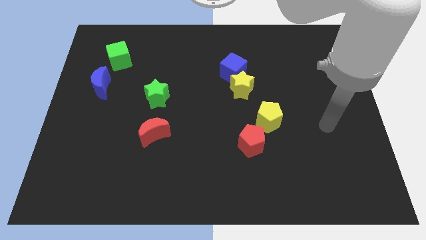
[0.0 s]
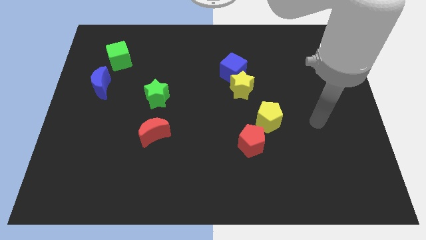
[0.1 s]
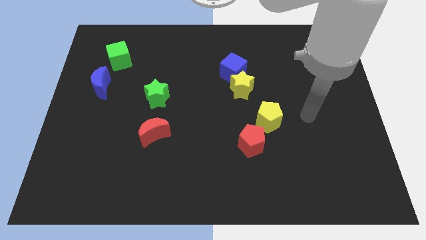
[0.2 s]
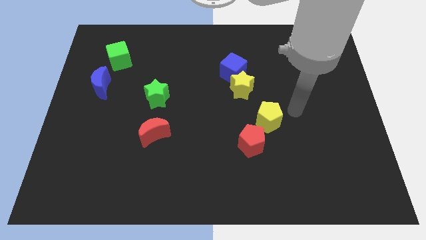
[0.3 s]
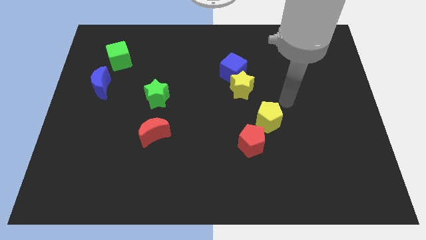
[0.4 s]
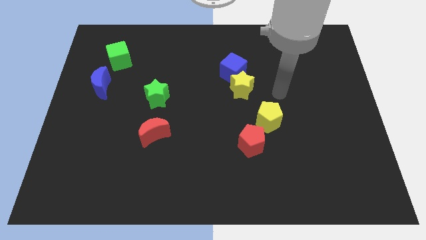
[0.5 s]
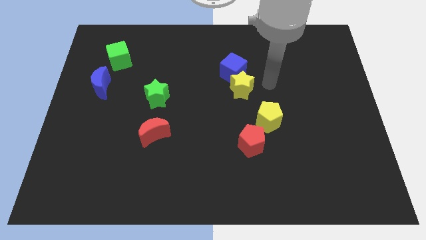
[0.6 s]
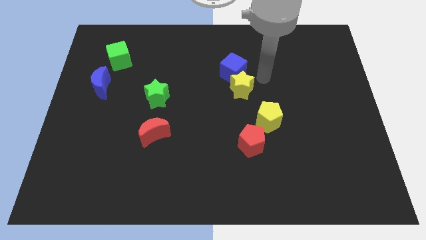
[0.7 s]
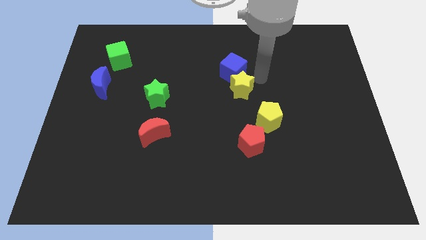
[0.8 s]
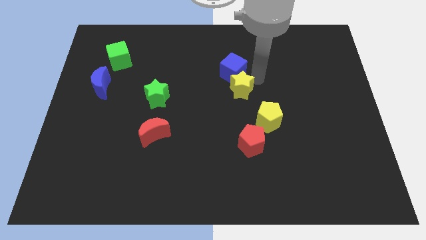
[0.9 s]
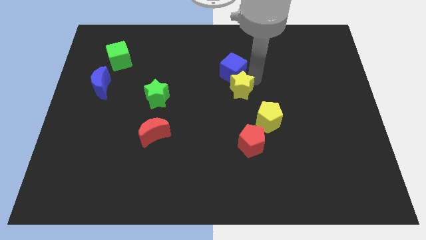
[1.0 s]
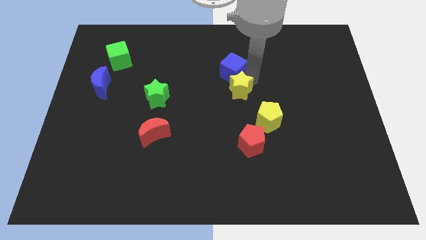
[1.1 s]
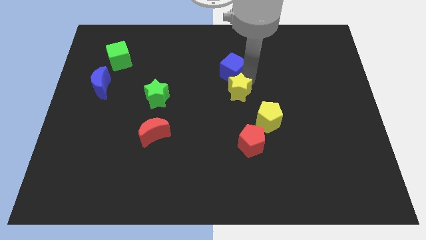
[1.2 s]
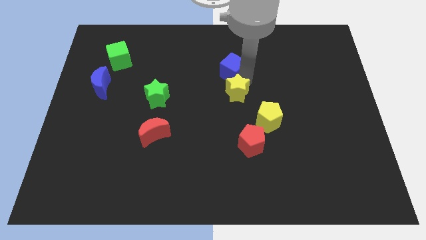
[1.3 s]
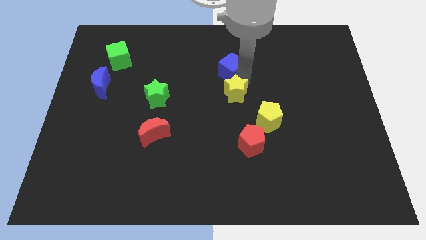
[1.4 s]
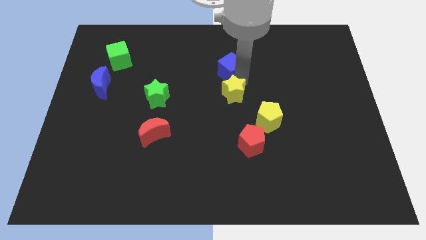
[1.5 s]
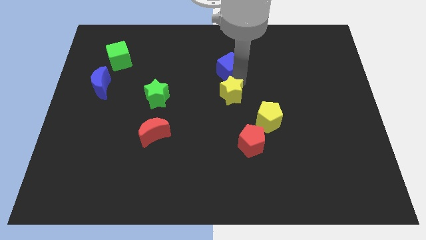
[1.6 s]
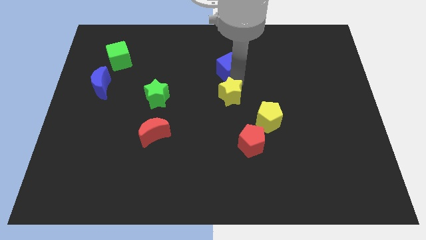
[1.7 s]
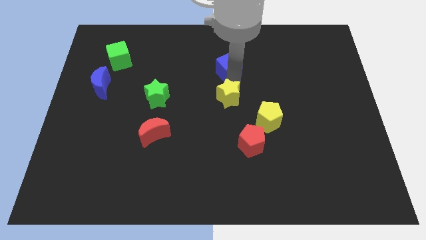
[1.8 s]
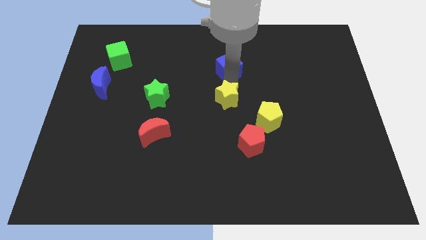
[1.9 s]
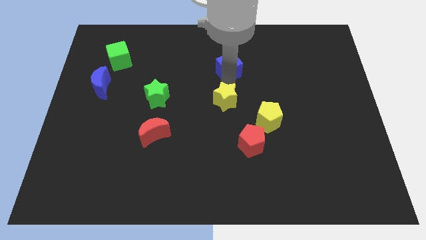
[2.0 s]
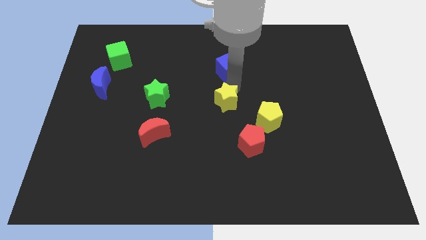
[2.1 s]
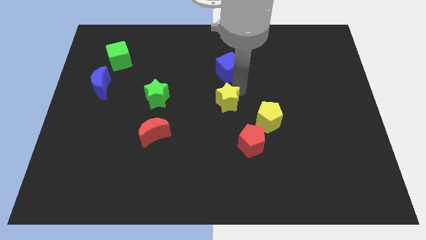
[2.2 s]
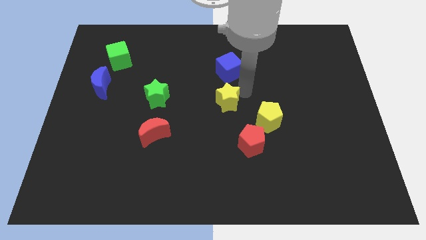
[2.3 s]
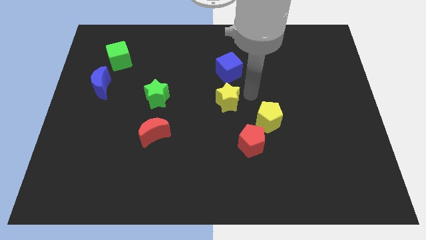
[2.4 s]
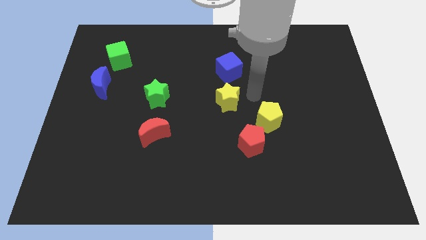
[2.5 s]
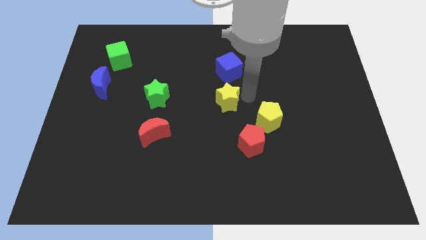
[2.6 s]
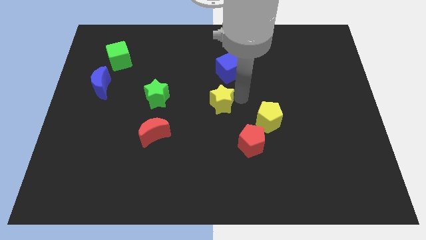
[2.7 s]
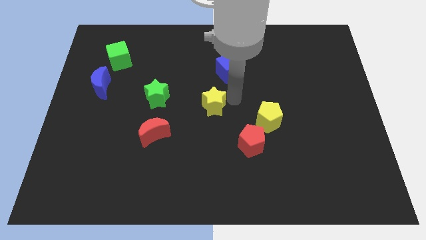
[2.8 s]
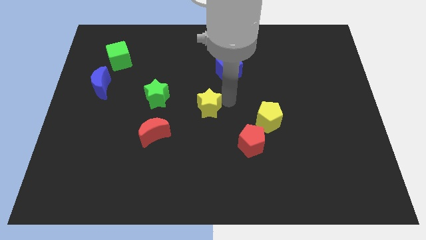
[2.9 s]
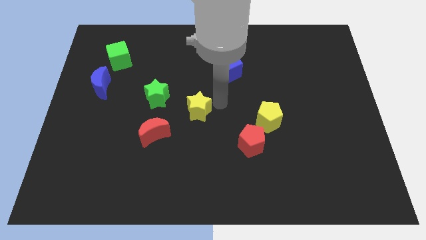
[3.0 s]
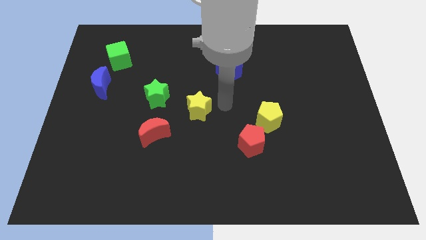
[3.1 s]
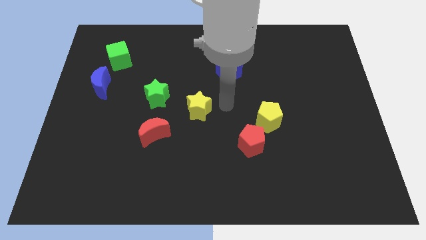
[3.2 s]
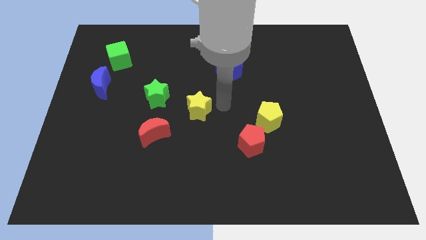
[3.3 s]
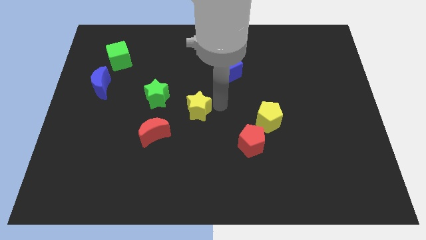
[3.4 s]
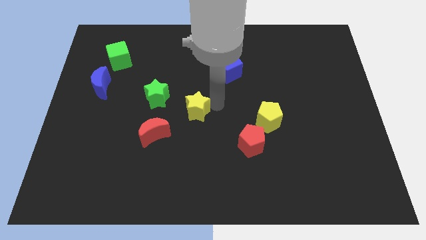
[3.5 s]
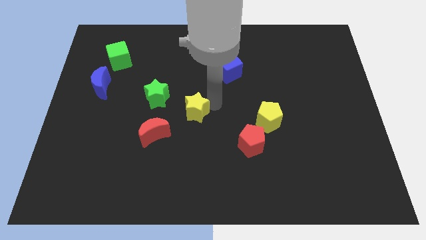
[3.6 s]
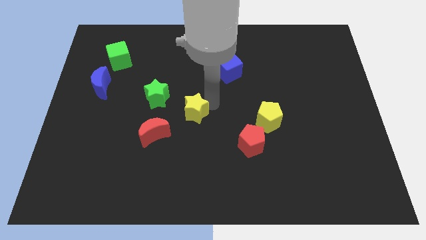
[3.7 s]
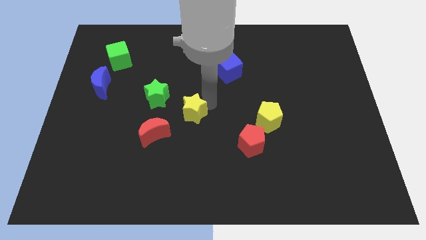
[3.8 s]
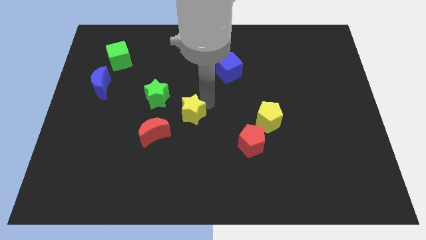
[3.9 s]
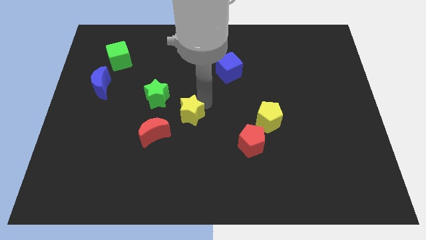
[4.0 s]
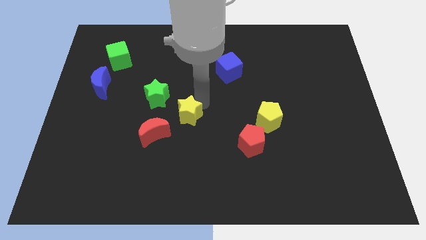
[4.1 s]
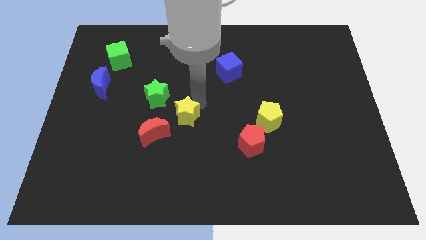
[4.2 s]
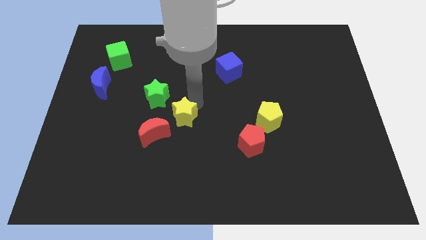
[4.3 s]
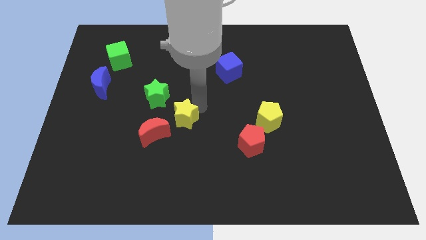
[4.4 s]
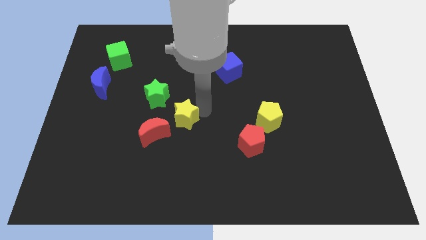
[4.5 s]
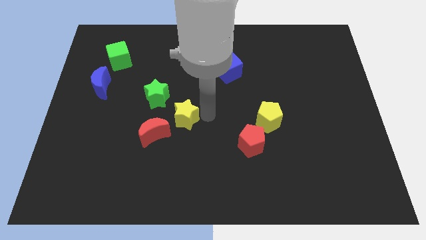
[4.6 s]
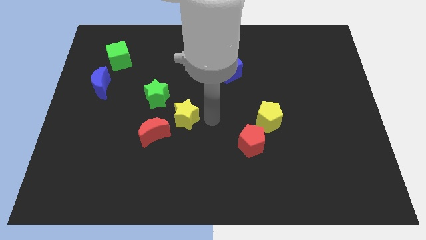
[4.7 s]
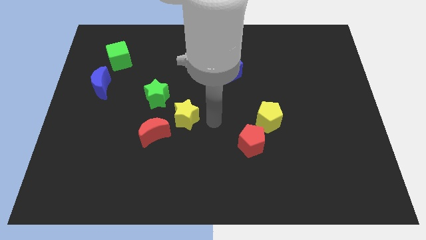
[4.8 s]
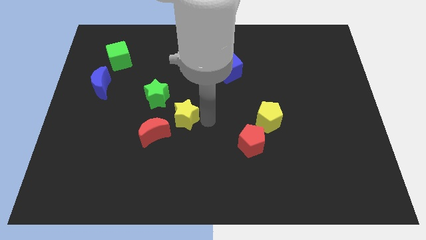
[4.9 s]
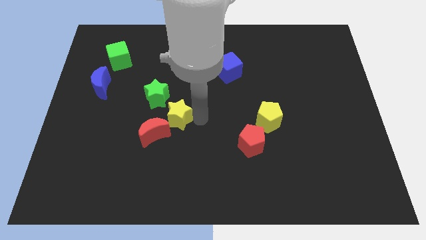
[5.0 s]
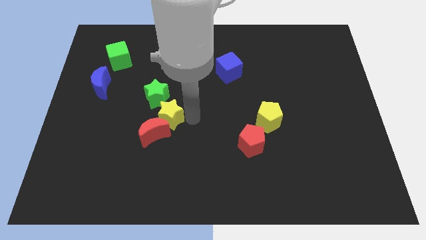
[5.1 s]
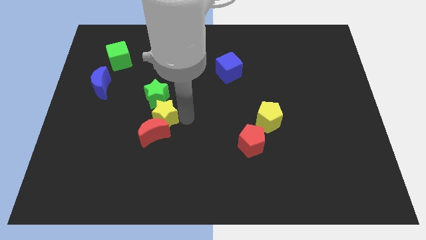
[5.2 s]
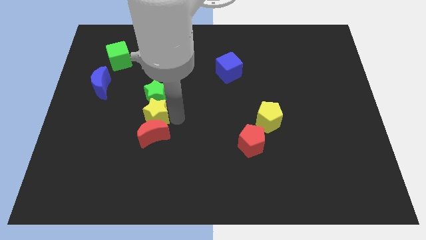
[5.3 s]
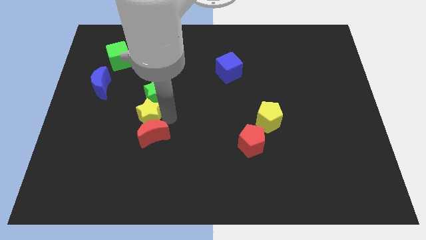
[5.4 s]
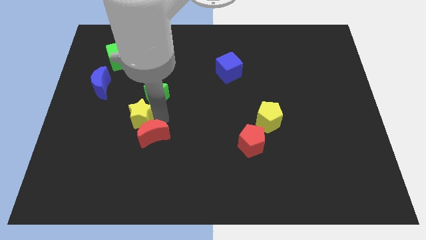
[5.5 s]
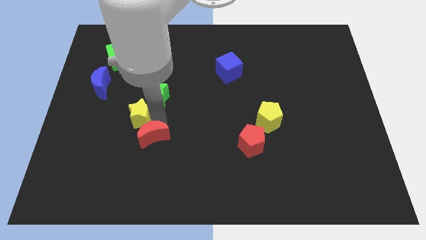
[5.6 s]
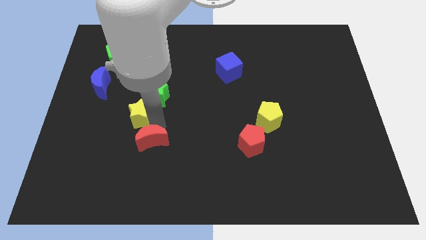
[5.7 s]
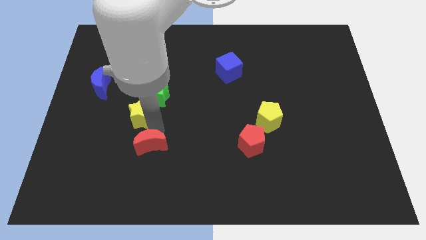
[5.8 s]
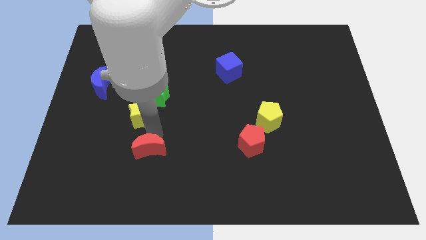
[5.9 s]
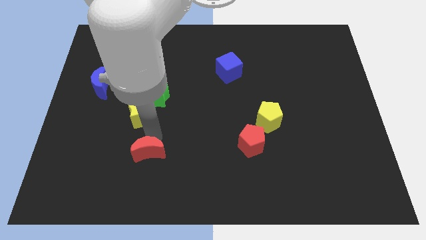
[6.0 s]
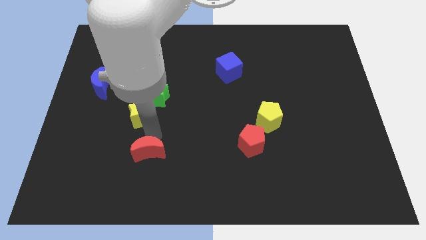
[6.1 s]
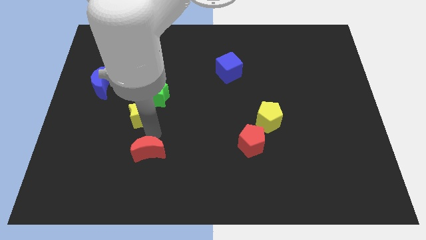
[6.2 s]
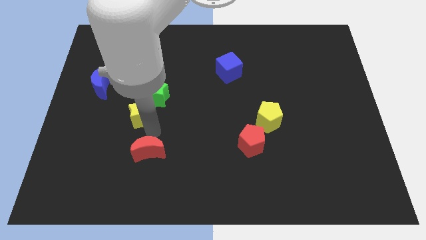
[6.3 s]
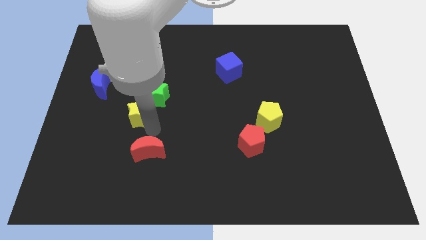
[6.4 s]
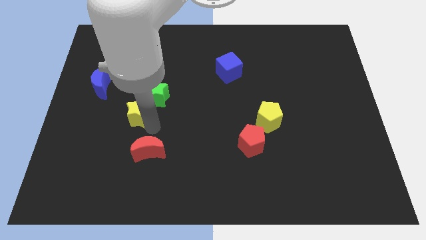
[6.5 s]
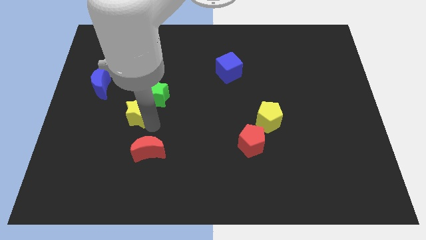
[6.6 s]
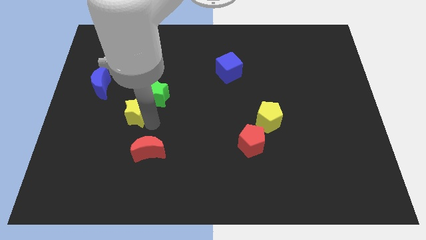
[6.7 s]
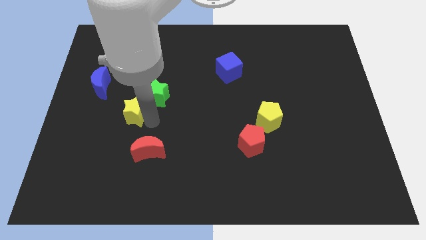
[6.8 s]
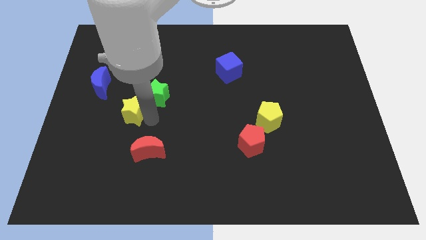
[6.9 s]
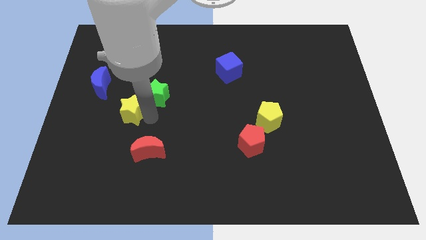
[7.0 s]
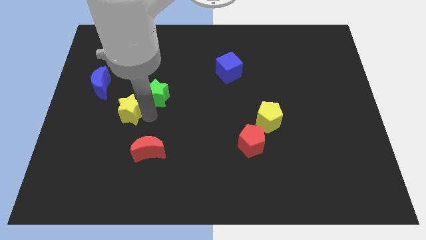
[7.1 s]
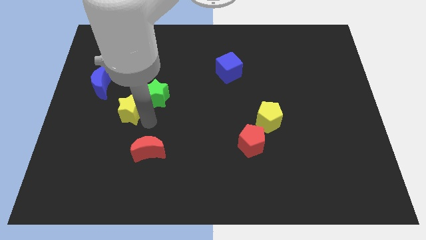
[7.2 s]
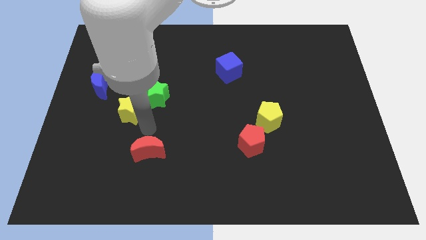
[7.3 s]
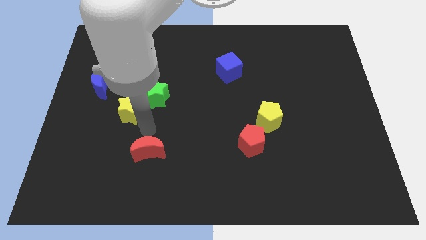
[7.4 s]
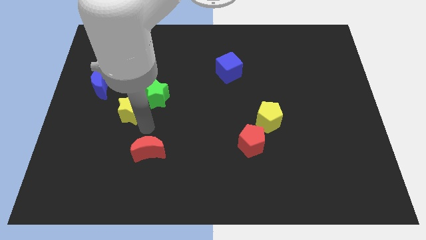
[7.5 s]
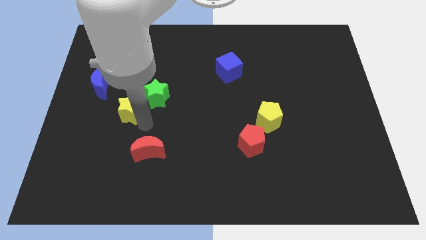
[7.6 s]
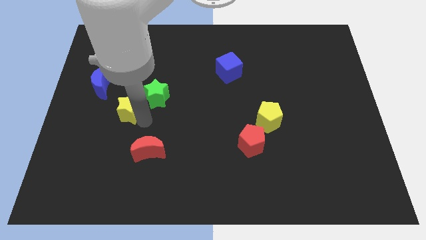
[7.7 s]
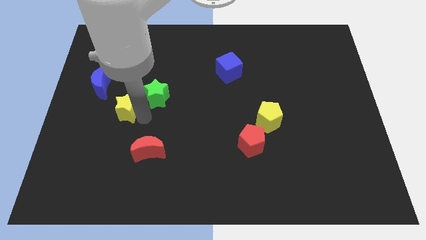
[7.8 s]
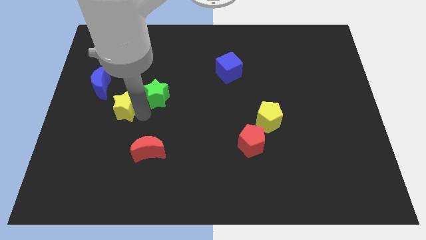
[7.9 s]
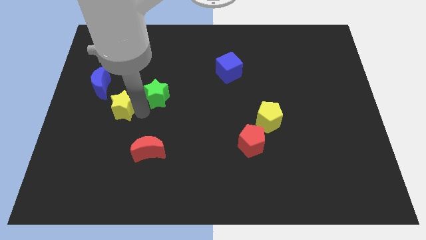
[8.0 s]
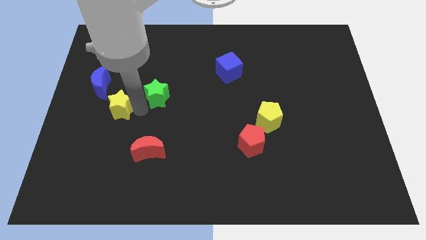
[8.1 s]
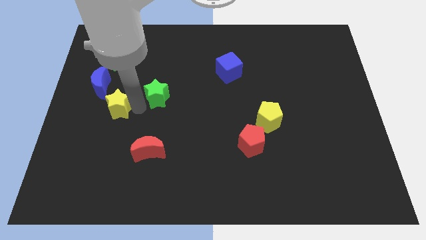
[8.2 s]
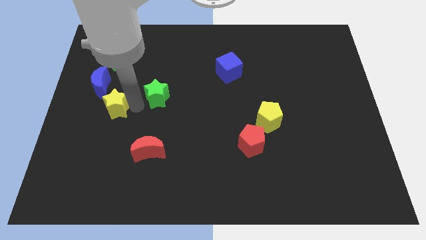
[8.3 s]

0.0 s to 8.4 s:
slide the yellow star to the bottom side of the green cube
